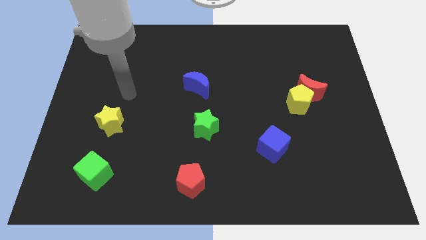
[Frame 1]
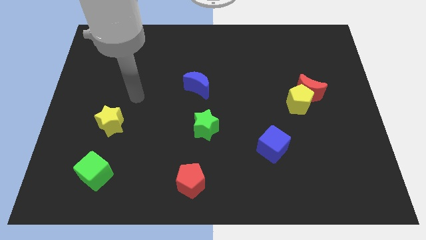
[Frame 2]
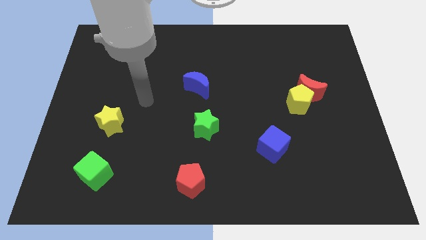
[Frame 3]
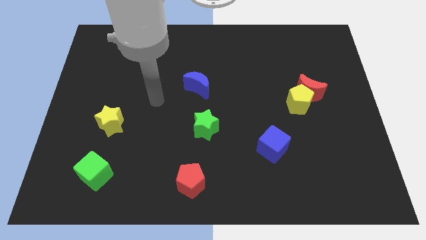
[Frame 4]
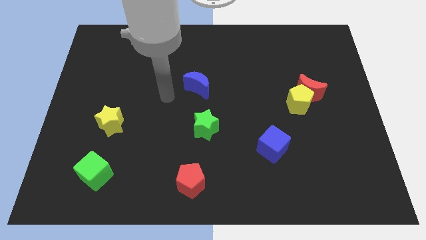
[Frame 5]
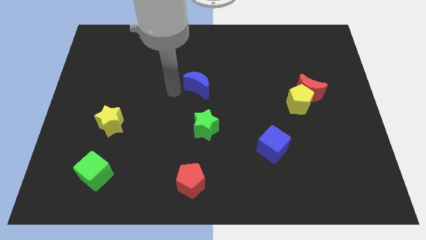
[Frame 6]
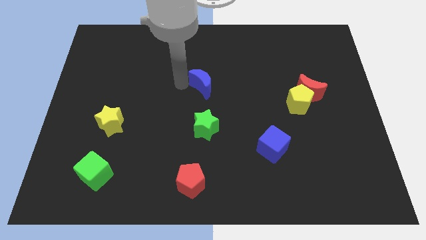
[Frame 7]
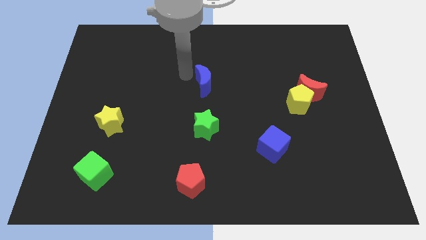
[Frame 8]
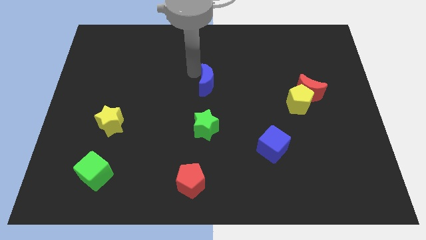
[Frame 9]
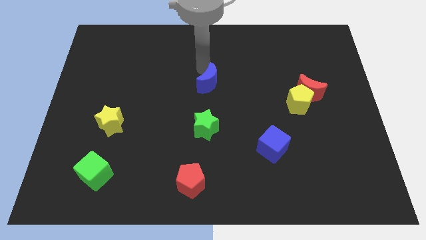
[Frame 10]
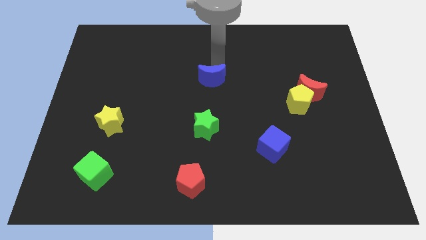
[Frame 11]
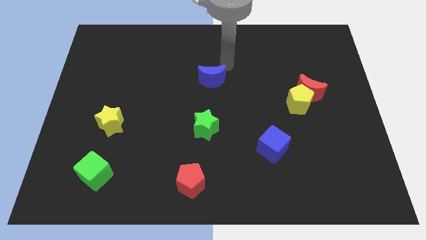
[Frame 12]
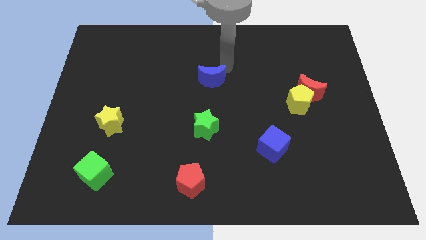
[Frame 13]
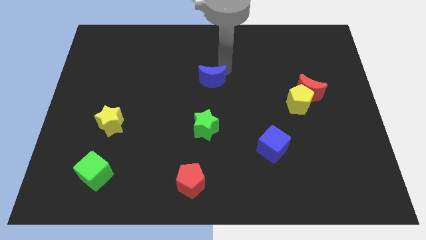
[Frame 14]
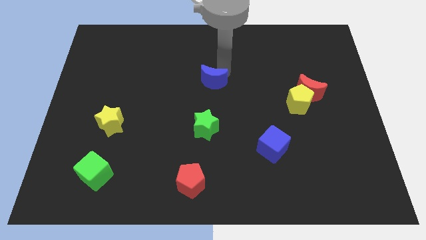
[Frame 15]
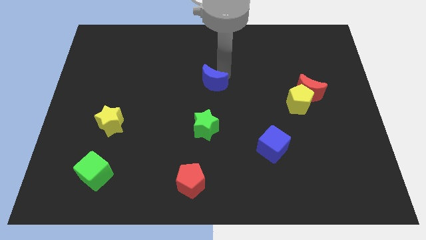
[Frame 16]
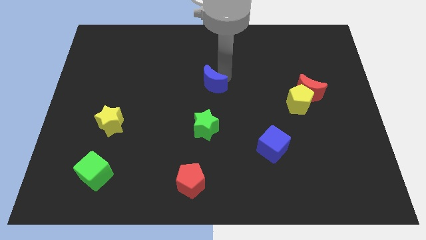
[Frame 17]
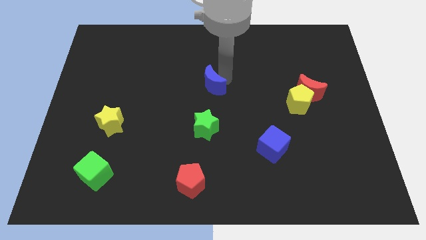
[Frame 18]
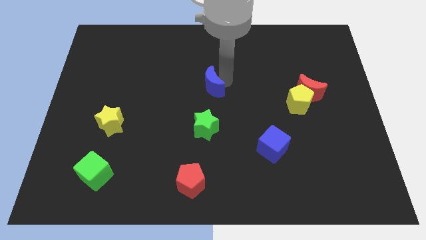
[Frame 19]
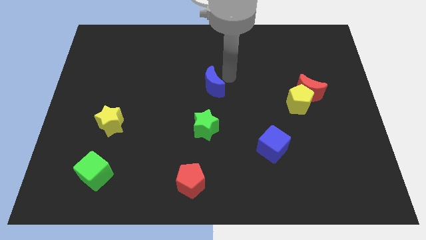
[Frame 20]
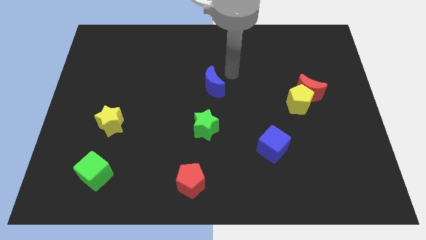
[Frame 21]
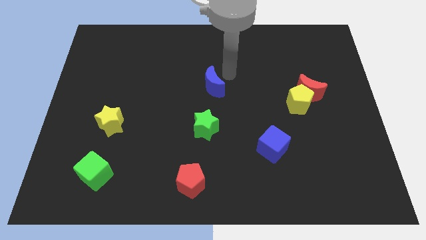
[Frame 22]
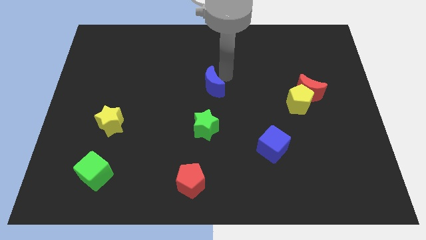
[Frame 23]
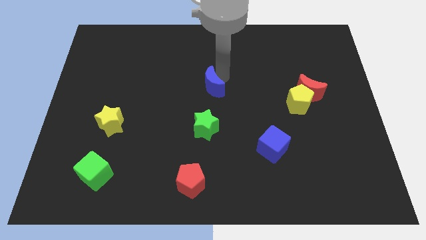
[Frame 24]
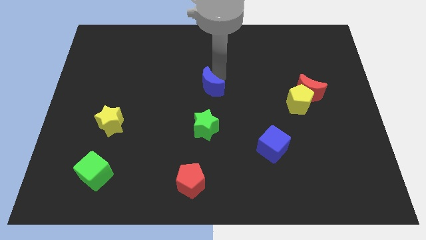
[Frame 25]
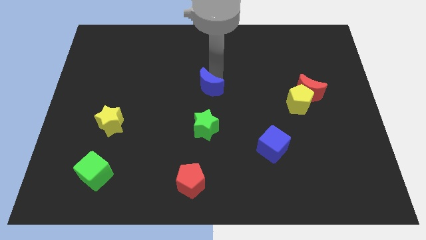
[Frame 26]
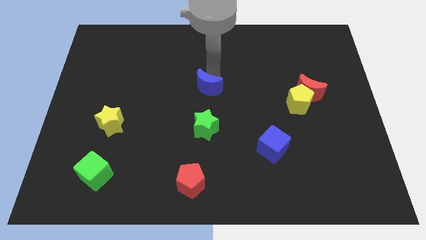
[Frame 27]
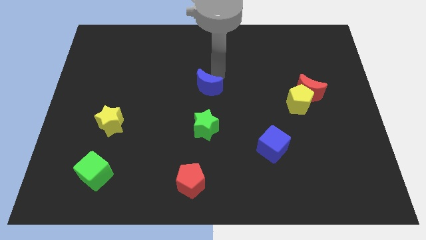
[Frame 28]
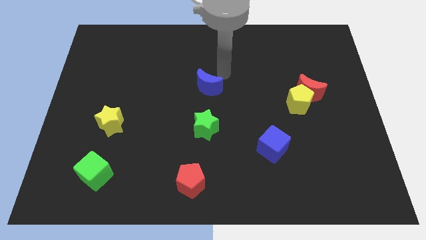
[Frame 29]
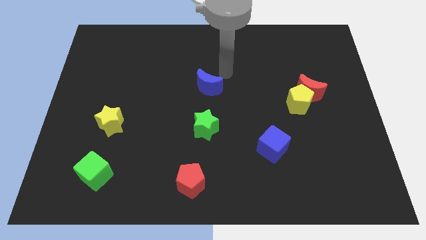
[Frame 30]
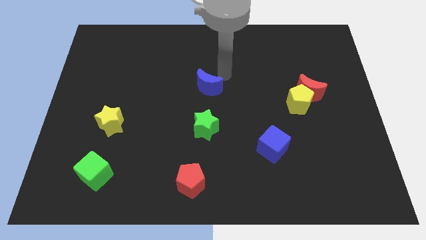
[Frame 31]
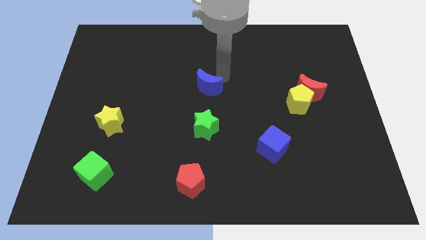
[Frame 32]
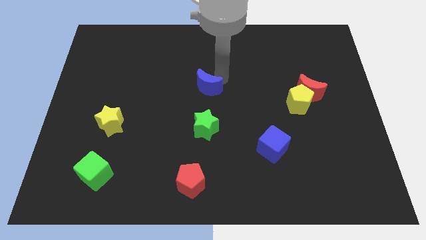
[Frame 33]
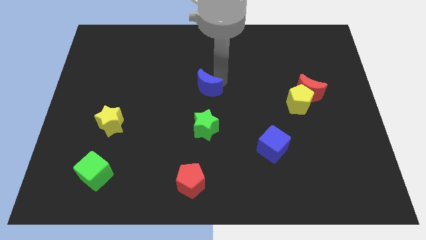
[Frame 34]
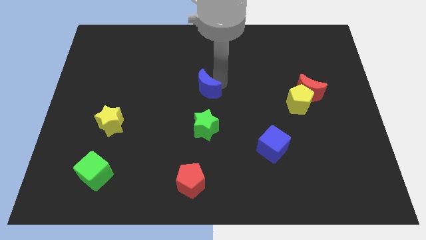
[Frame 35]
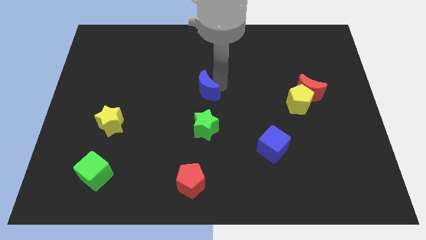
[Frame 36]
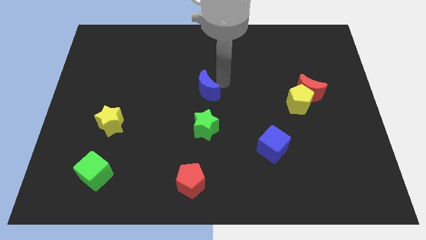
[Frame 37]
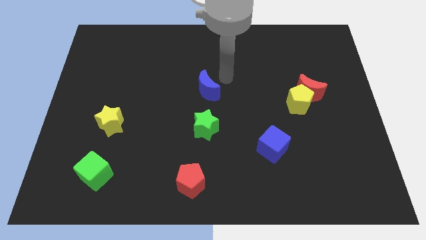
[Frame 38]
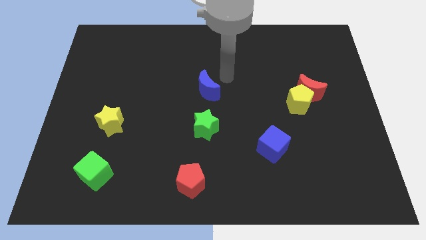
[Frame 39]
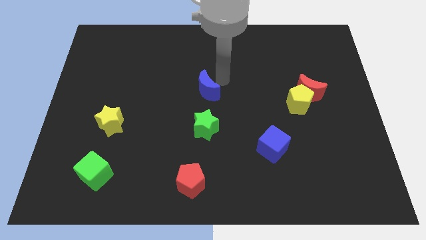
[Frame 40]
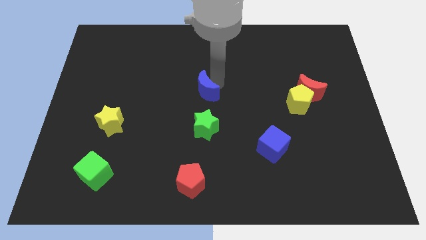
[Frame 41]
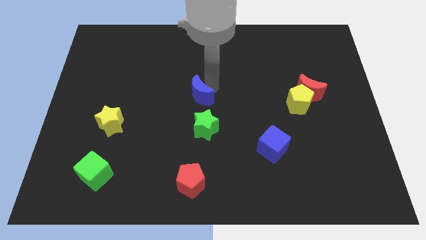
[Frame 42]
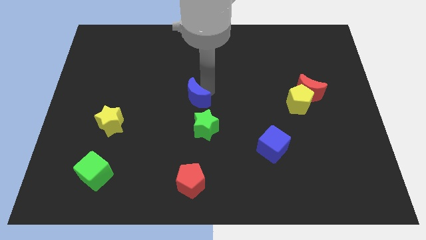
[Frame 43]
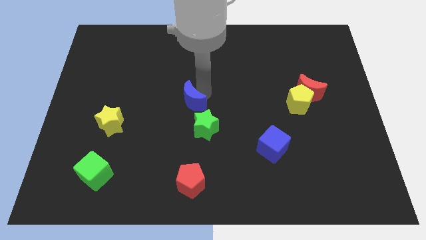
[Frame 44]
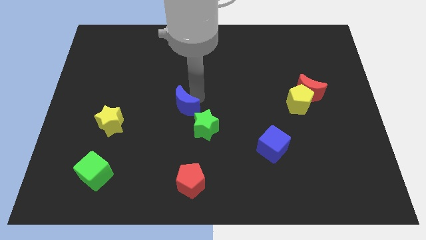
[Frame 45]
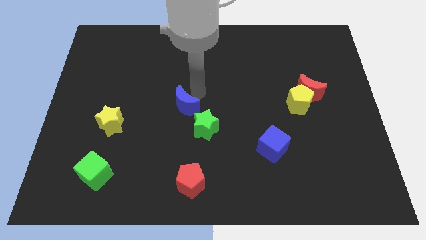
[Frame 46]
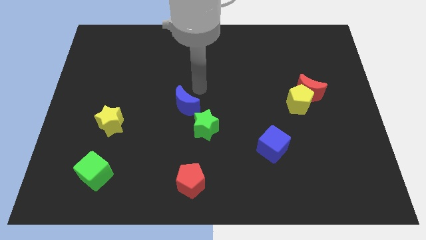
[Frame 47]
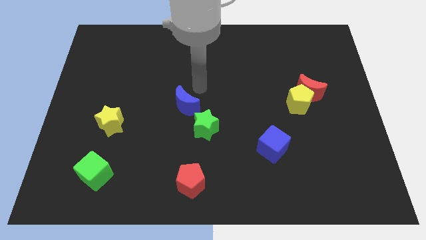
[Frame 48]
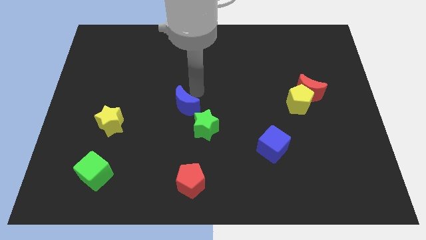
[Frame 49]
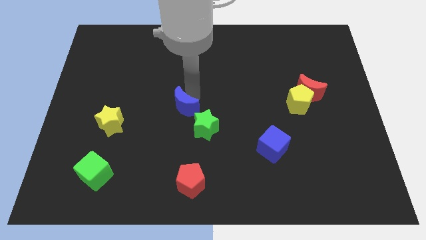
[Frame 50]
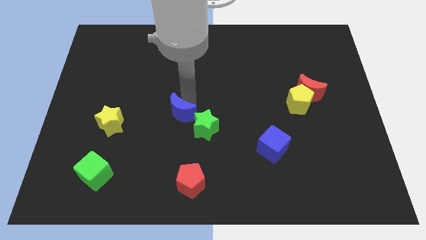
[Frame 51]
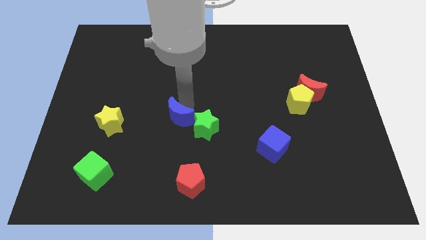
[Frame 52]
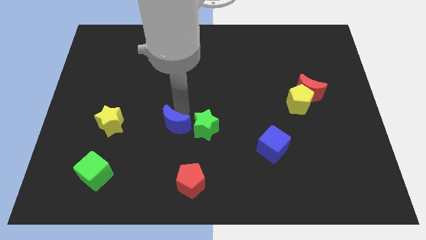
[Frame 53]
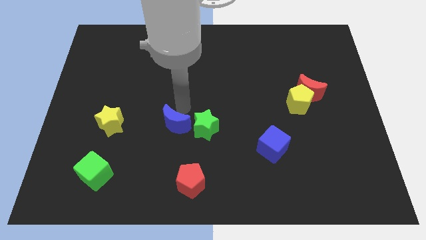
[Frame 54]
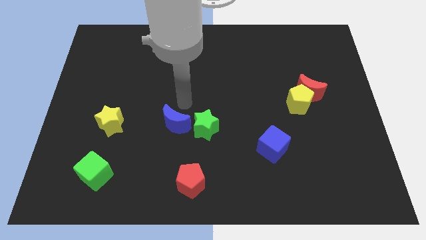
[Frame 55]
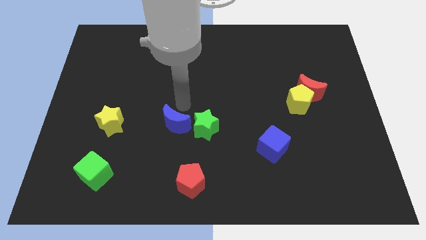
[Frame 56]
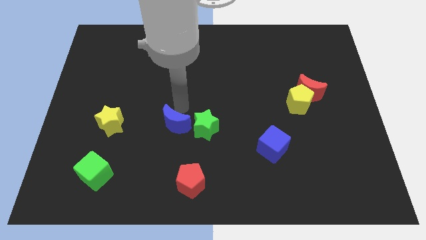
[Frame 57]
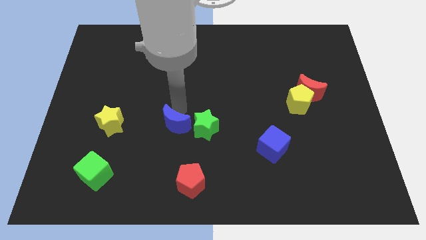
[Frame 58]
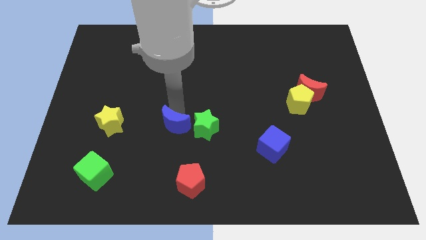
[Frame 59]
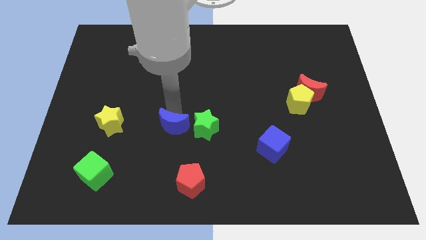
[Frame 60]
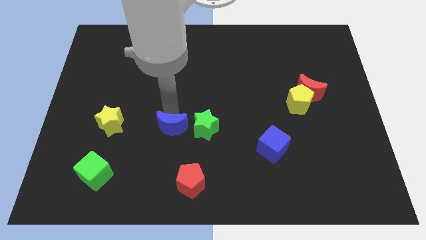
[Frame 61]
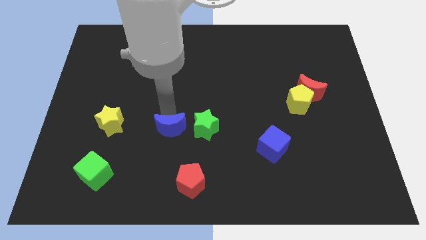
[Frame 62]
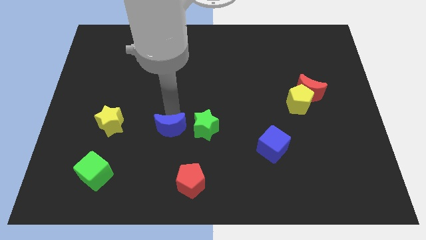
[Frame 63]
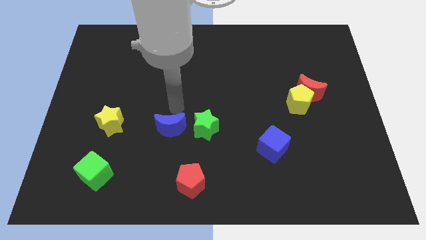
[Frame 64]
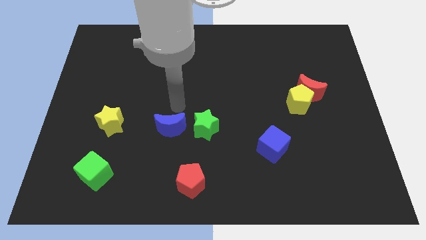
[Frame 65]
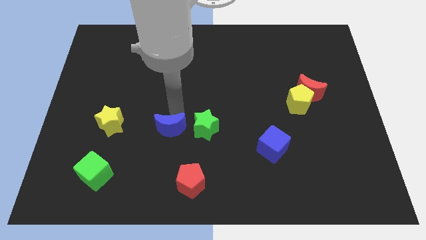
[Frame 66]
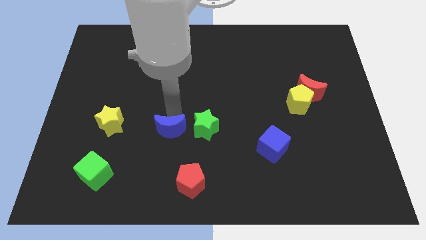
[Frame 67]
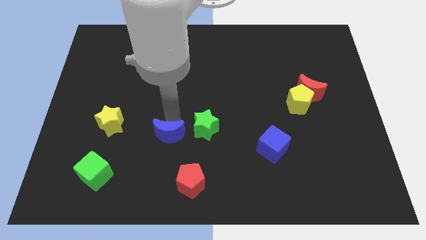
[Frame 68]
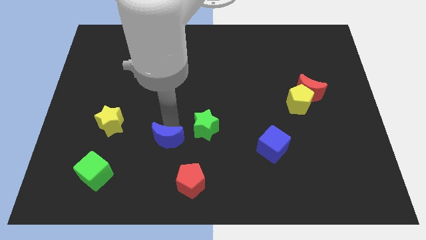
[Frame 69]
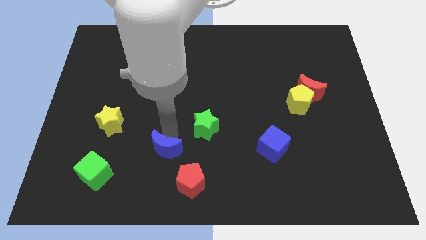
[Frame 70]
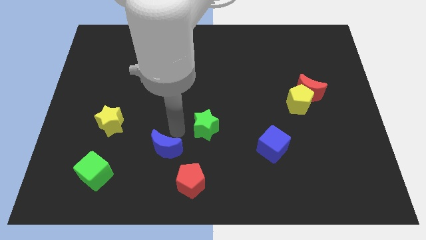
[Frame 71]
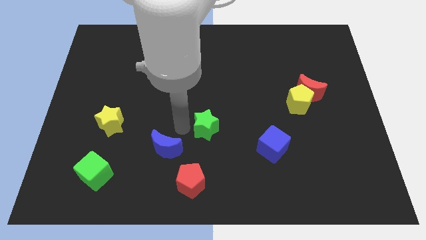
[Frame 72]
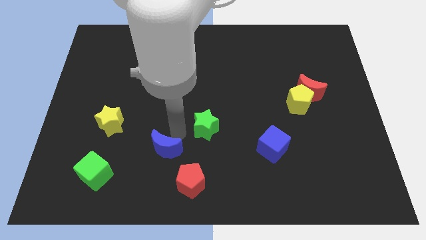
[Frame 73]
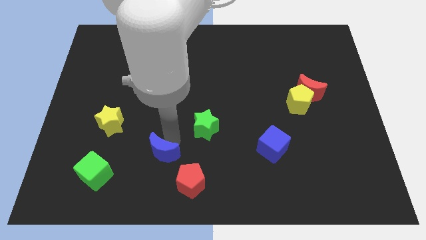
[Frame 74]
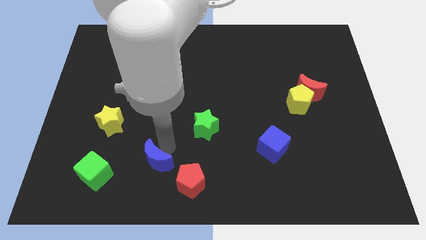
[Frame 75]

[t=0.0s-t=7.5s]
put the blue moon to the left of the red pentagon
